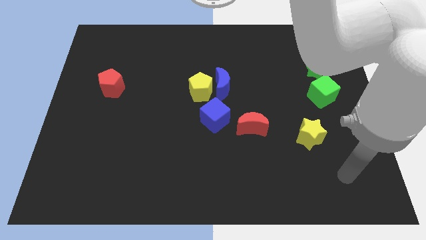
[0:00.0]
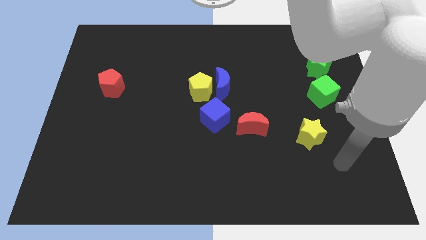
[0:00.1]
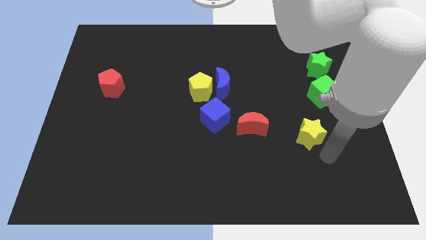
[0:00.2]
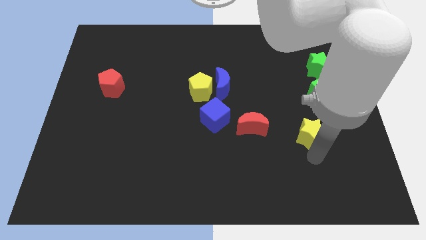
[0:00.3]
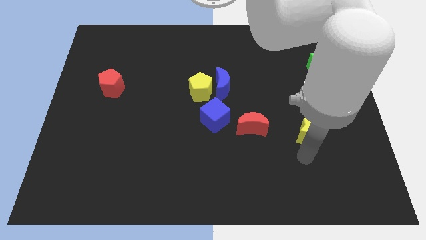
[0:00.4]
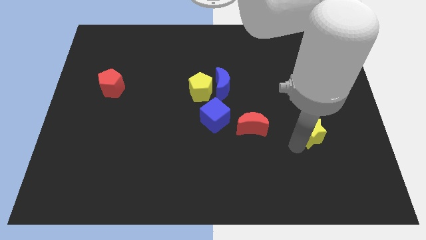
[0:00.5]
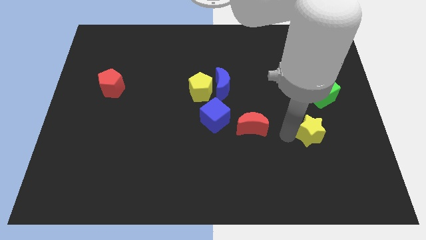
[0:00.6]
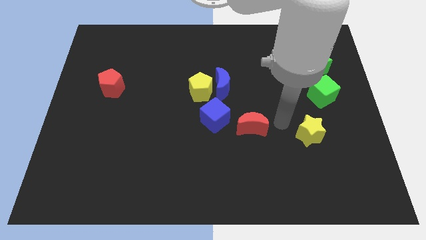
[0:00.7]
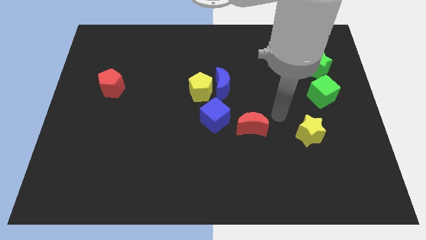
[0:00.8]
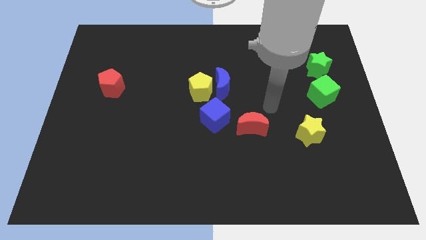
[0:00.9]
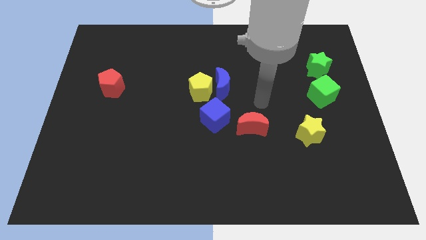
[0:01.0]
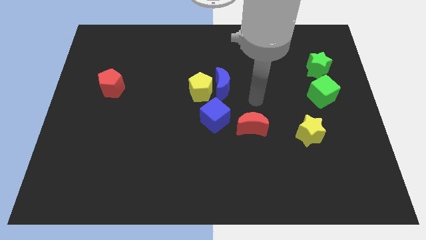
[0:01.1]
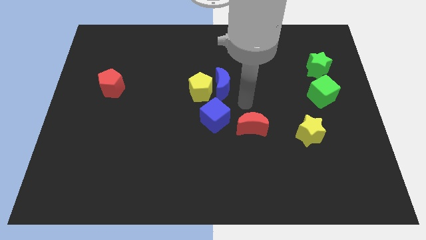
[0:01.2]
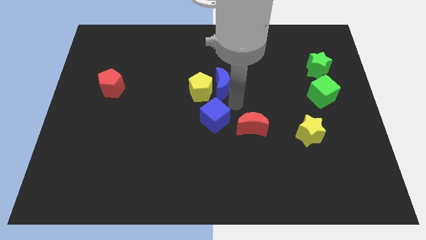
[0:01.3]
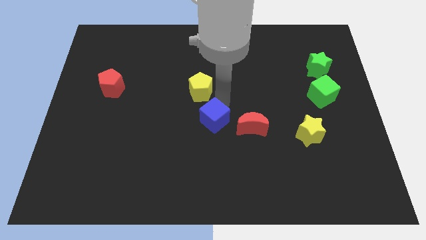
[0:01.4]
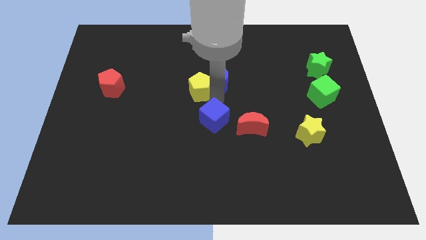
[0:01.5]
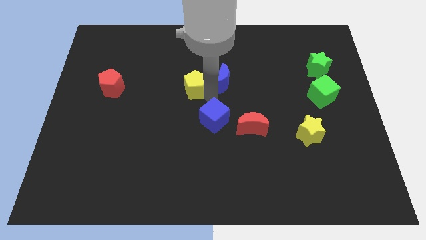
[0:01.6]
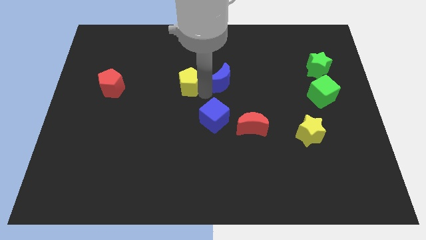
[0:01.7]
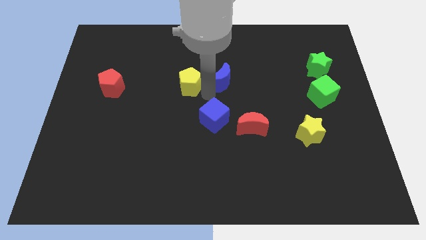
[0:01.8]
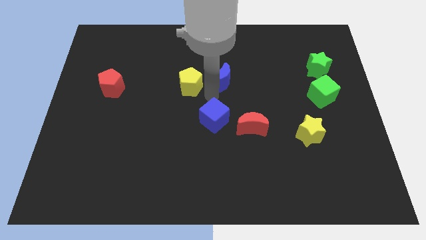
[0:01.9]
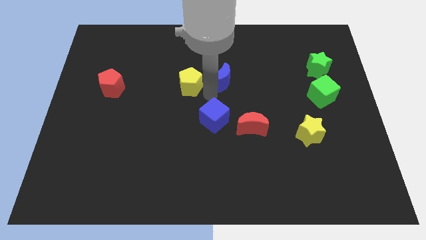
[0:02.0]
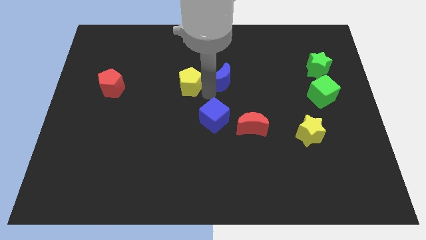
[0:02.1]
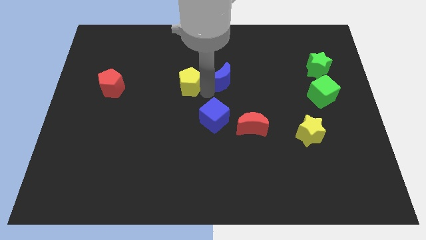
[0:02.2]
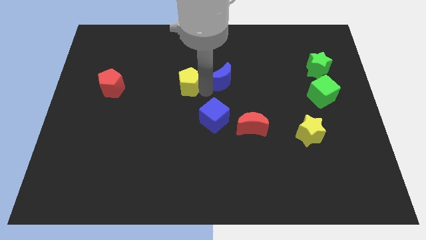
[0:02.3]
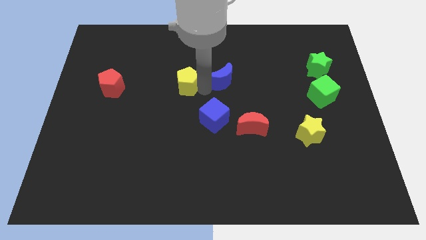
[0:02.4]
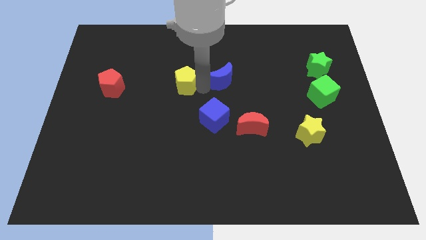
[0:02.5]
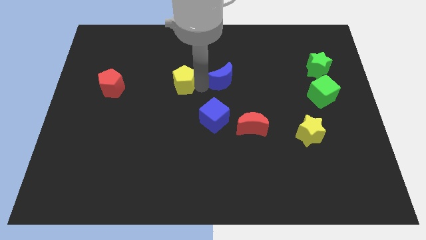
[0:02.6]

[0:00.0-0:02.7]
move the yellow pentagon away from the blue moon and blue cube

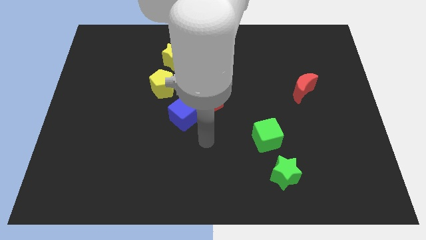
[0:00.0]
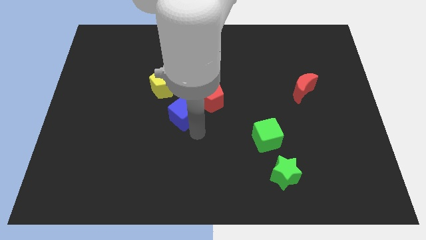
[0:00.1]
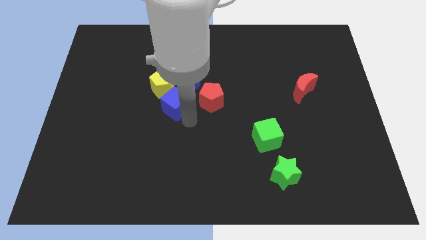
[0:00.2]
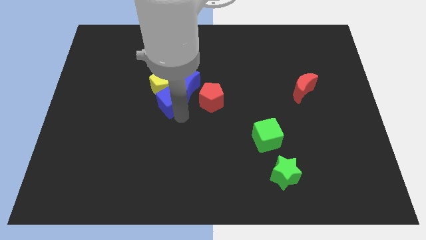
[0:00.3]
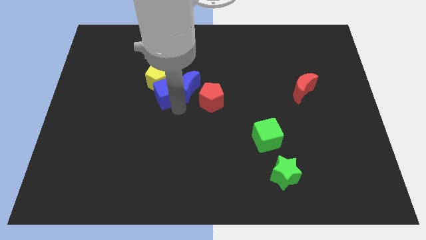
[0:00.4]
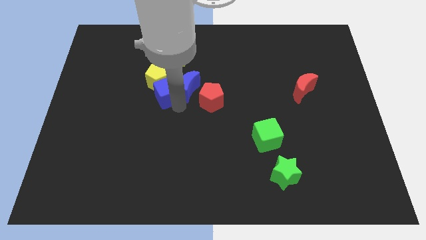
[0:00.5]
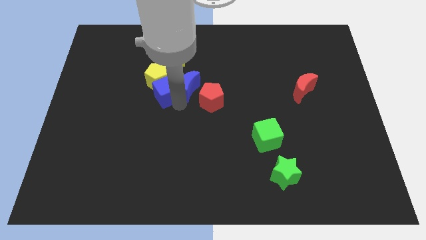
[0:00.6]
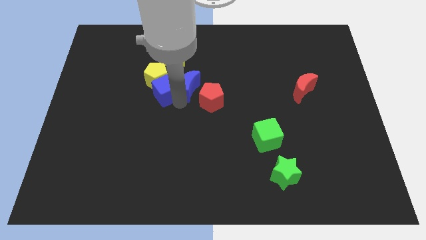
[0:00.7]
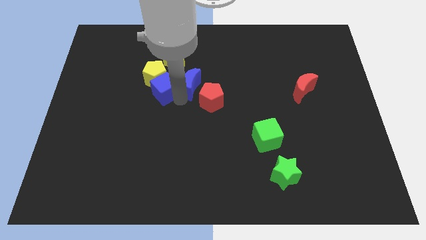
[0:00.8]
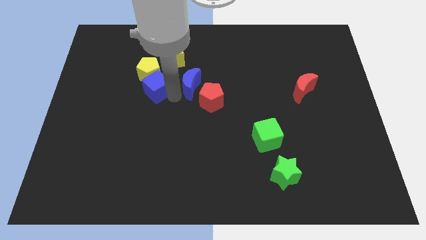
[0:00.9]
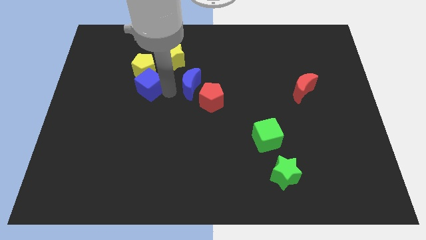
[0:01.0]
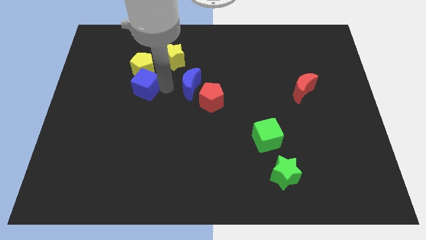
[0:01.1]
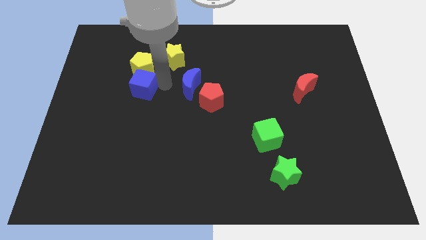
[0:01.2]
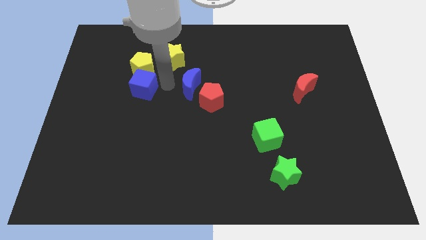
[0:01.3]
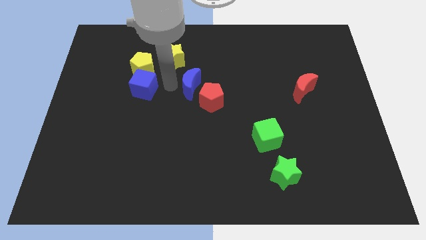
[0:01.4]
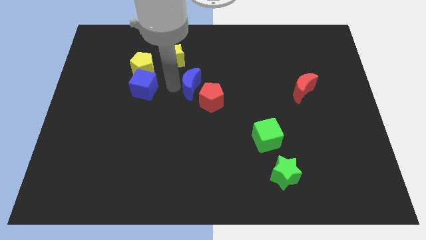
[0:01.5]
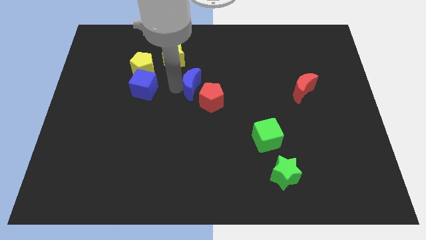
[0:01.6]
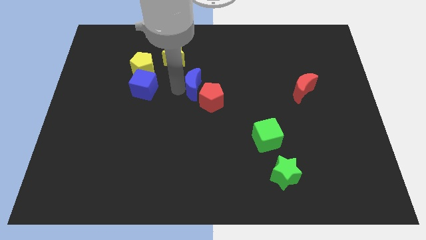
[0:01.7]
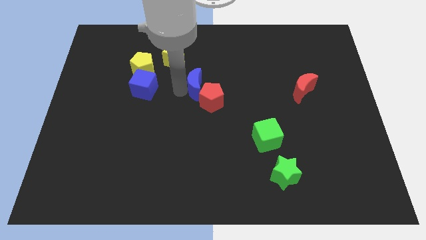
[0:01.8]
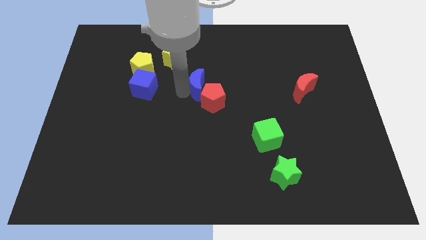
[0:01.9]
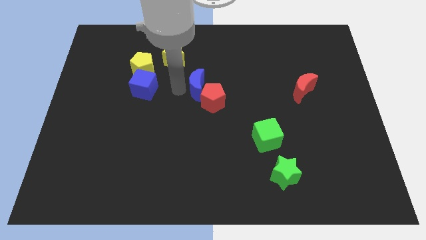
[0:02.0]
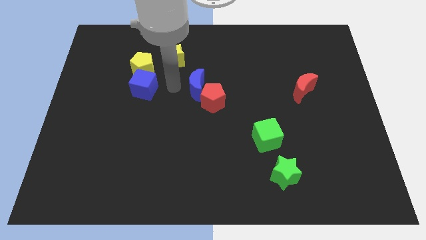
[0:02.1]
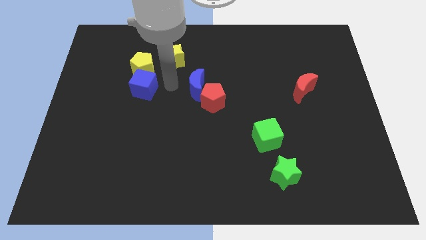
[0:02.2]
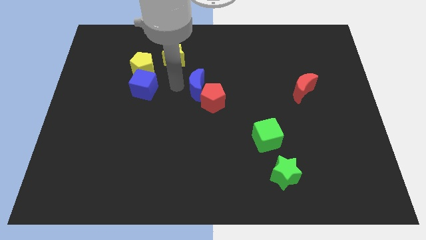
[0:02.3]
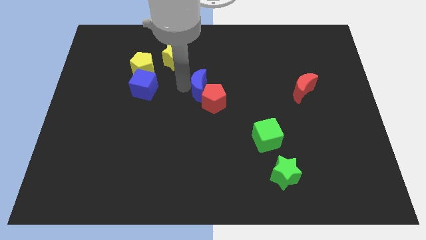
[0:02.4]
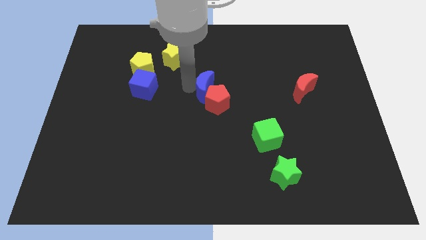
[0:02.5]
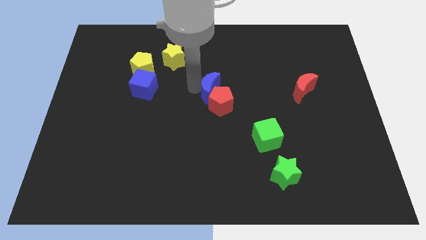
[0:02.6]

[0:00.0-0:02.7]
separate the blue moon from the yellow pentagon, red pentagon, and blue cube

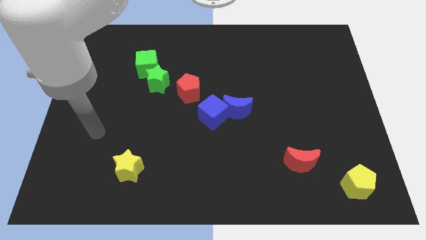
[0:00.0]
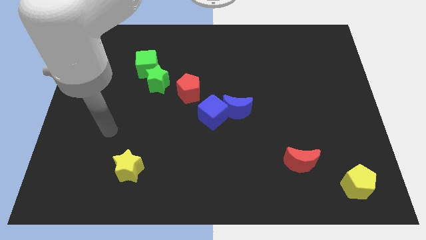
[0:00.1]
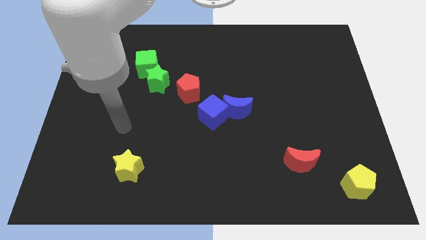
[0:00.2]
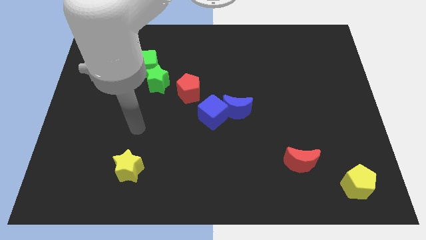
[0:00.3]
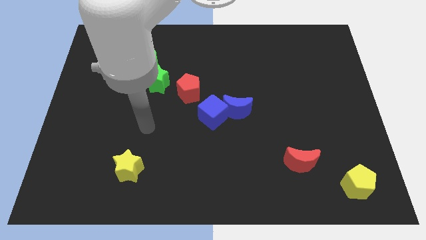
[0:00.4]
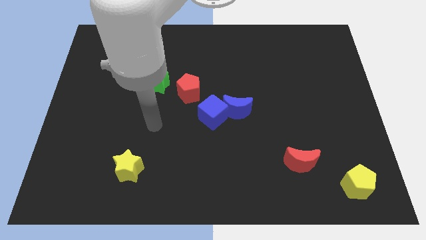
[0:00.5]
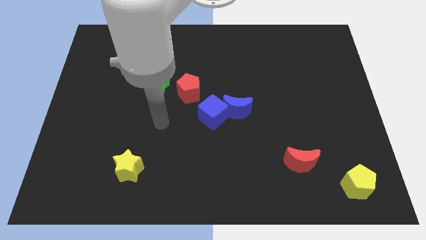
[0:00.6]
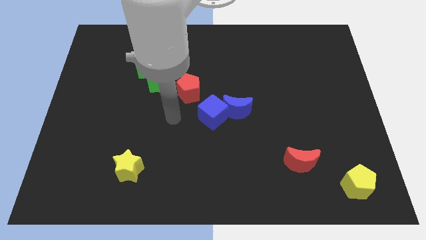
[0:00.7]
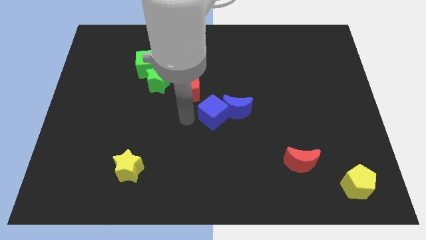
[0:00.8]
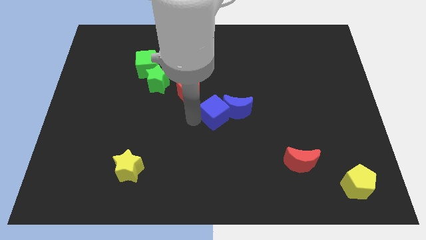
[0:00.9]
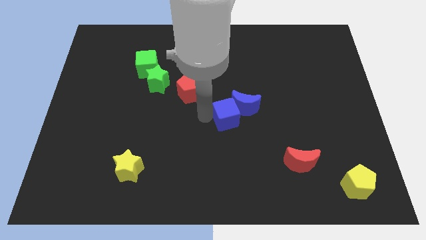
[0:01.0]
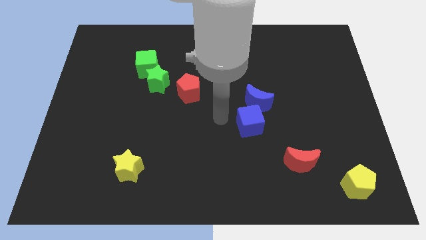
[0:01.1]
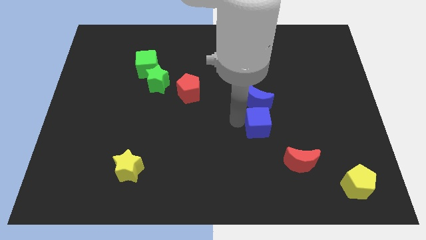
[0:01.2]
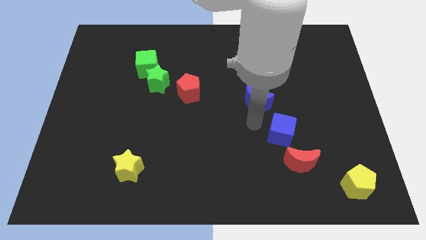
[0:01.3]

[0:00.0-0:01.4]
pull the blue moon apart from the blue cube

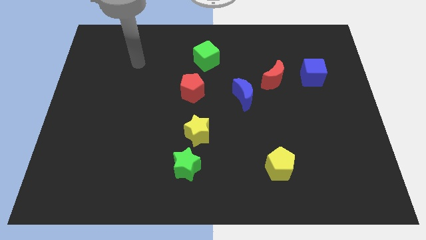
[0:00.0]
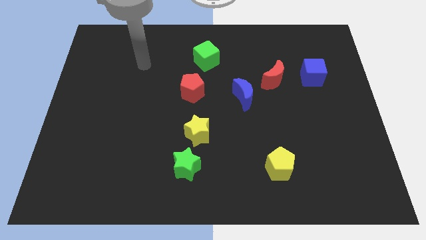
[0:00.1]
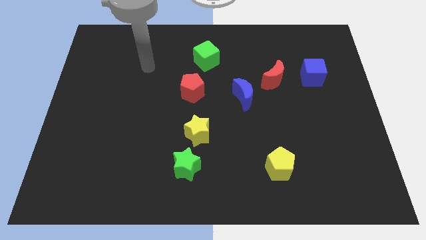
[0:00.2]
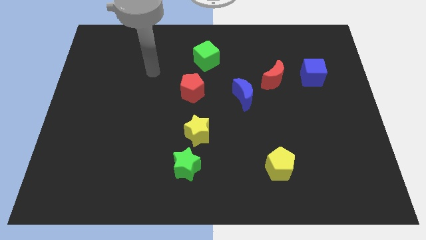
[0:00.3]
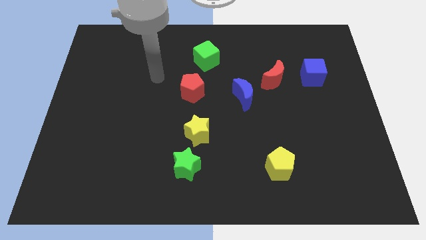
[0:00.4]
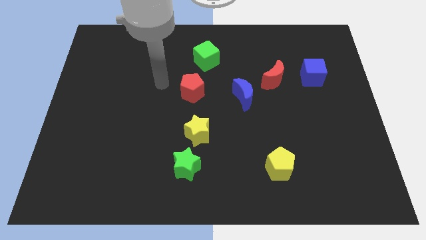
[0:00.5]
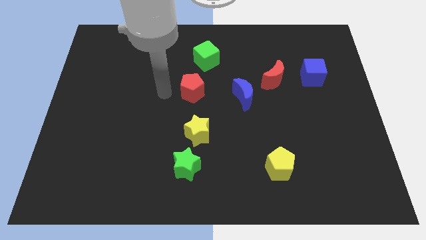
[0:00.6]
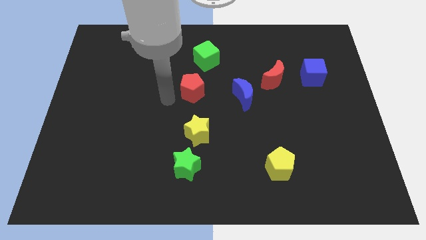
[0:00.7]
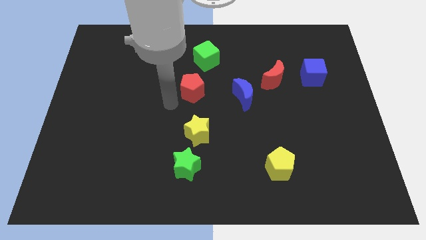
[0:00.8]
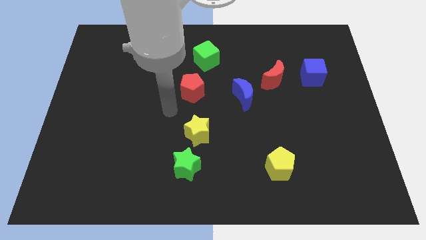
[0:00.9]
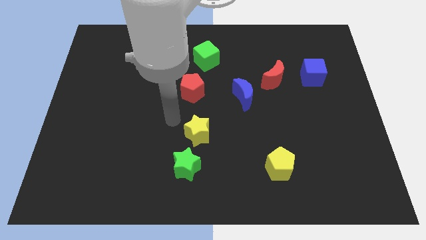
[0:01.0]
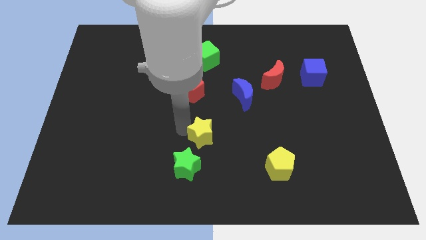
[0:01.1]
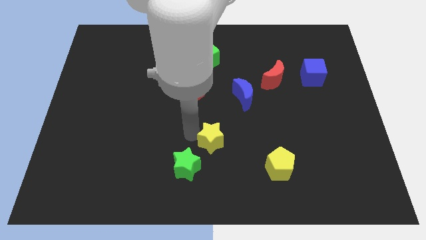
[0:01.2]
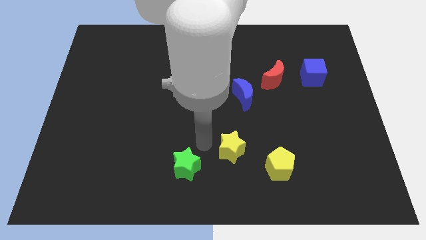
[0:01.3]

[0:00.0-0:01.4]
separate the green star from the yellow star

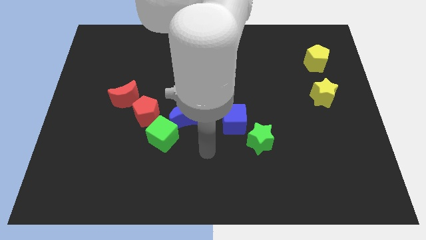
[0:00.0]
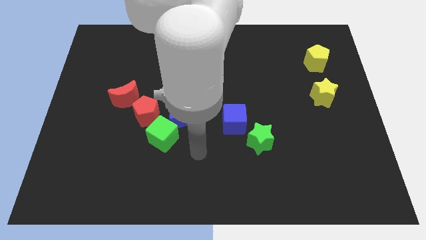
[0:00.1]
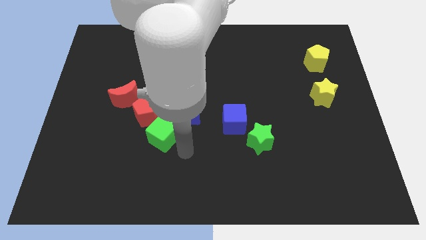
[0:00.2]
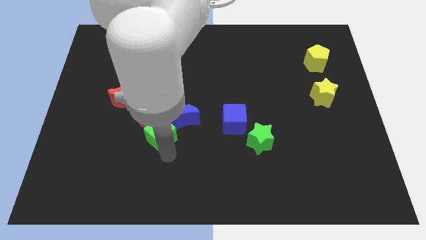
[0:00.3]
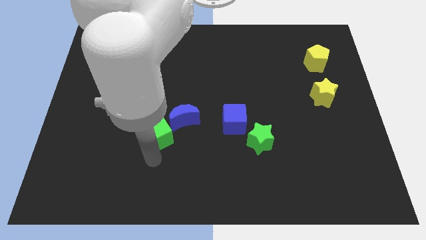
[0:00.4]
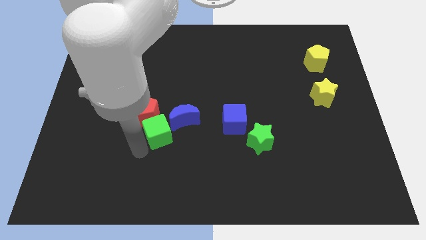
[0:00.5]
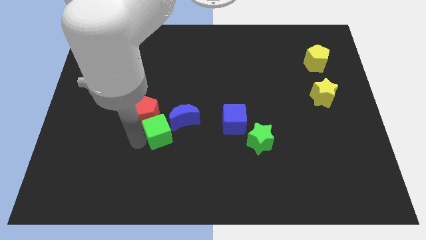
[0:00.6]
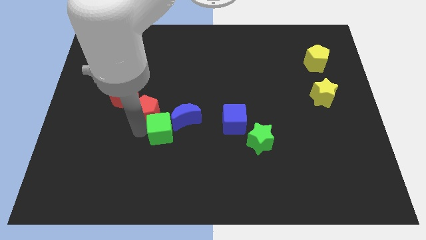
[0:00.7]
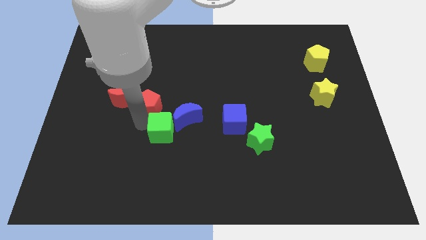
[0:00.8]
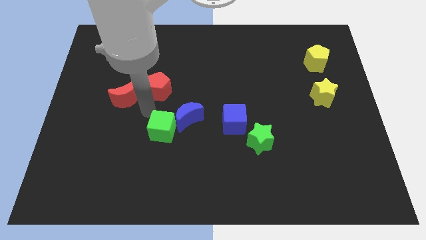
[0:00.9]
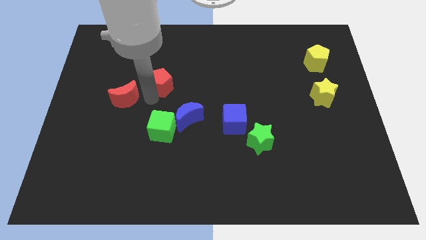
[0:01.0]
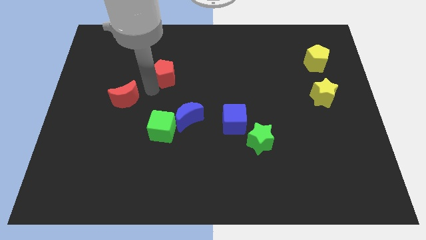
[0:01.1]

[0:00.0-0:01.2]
move the red moon away from the red pentagon
